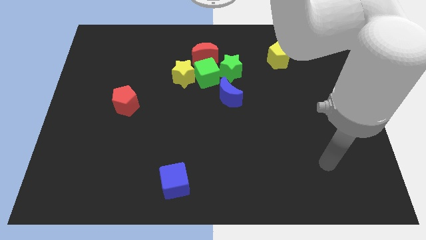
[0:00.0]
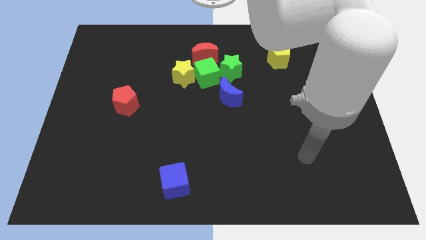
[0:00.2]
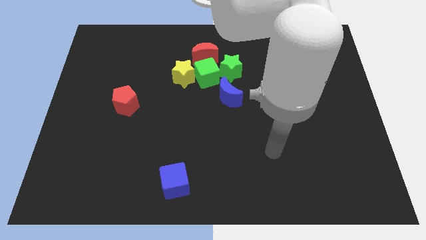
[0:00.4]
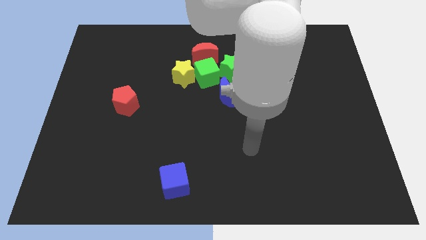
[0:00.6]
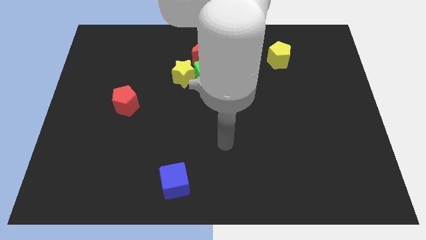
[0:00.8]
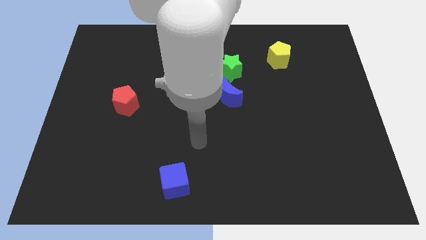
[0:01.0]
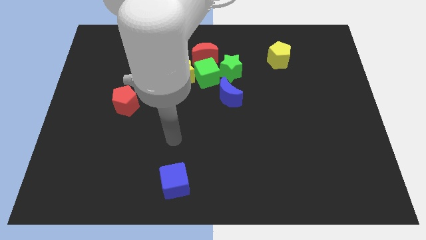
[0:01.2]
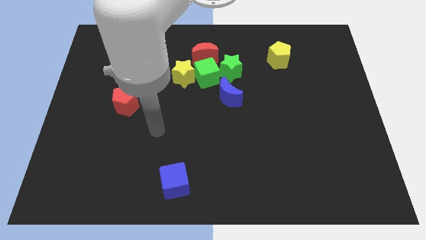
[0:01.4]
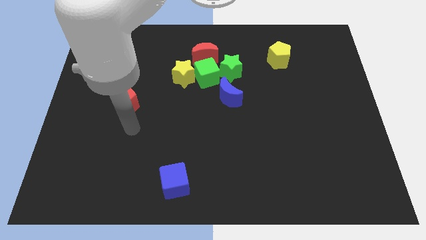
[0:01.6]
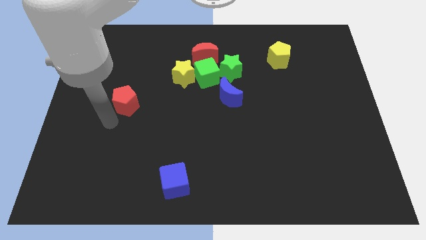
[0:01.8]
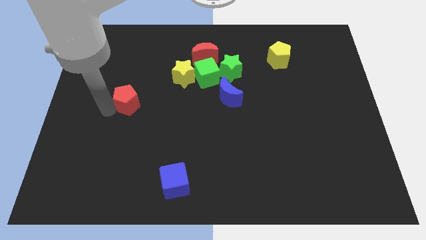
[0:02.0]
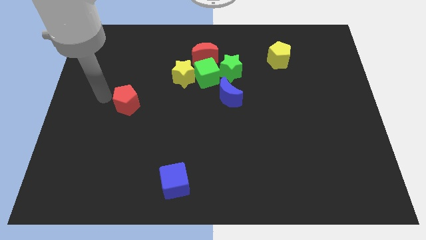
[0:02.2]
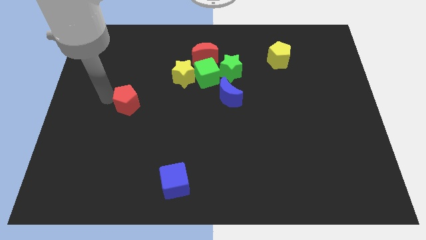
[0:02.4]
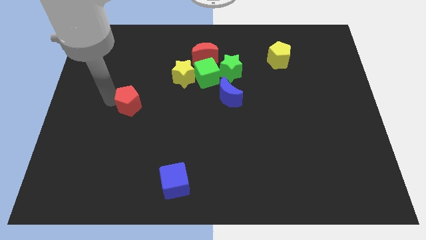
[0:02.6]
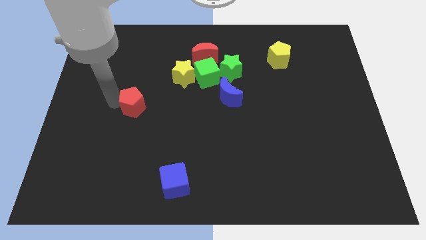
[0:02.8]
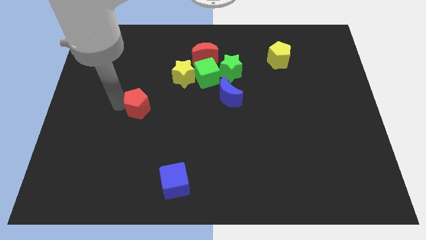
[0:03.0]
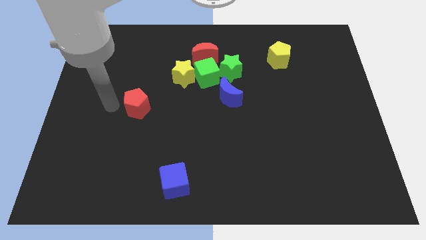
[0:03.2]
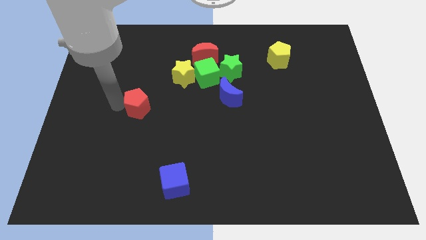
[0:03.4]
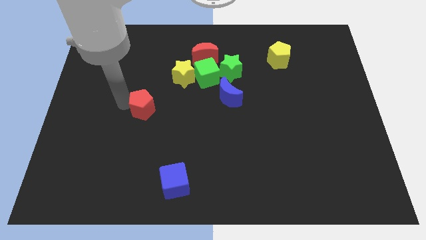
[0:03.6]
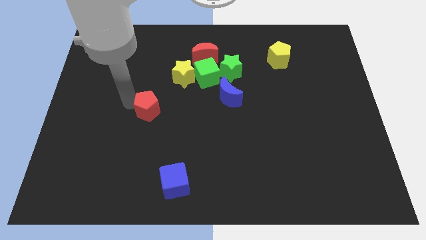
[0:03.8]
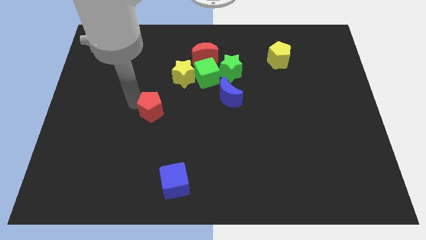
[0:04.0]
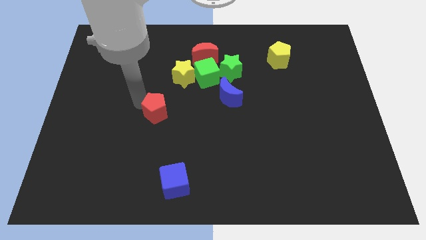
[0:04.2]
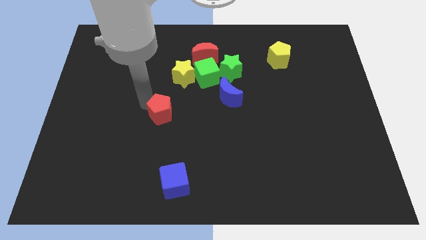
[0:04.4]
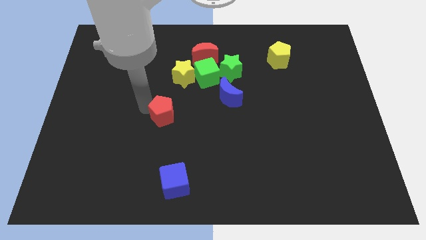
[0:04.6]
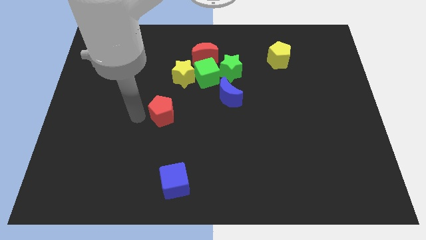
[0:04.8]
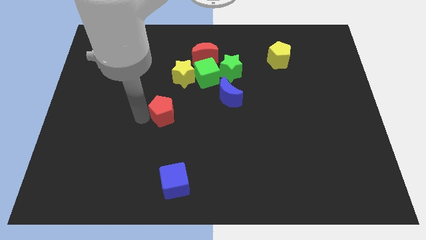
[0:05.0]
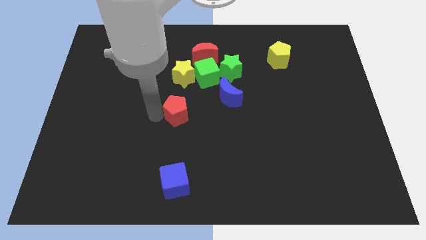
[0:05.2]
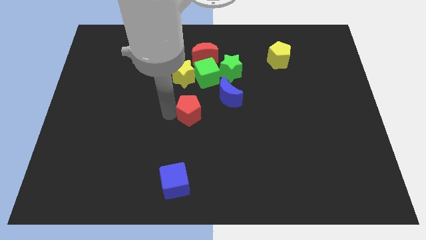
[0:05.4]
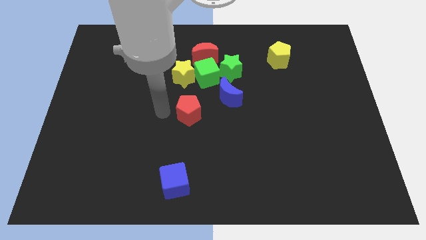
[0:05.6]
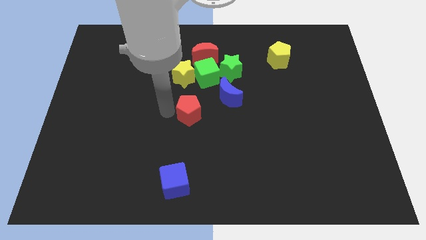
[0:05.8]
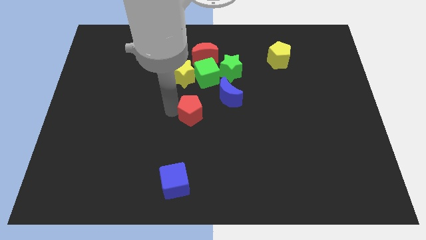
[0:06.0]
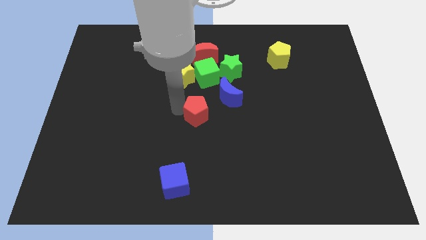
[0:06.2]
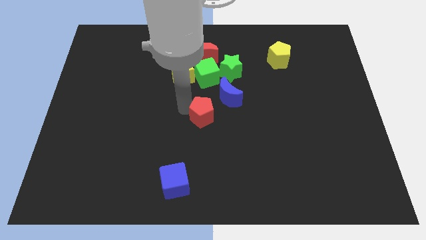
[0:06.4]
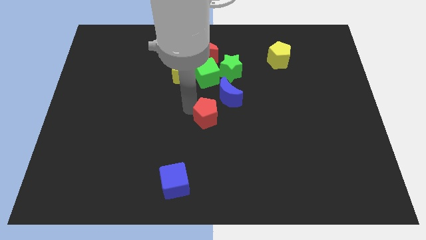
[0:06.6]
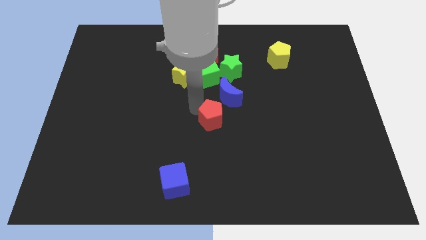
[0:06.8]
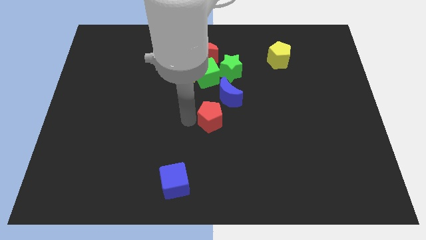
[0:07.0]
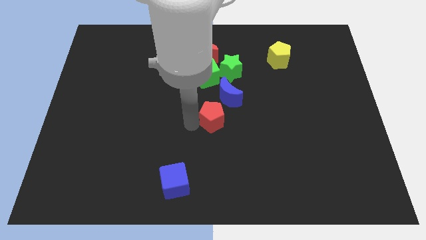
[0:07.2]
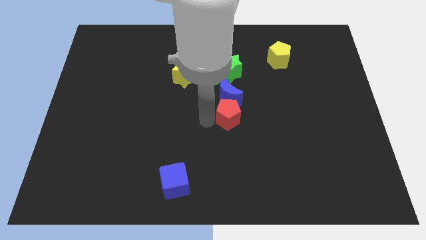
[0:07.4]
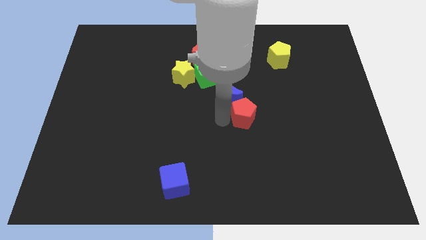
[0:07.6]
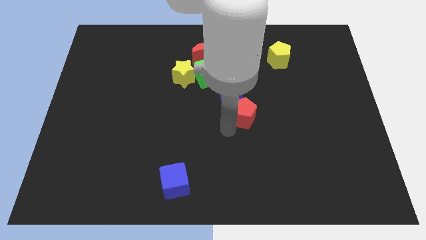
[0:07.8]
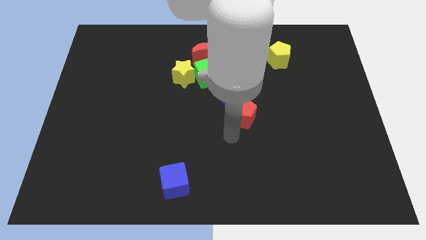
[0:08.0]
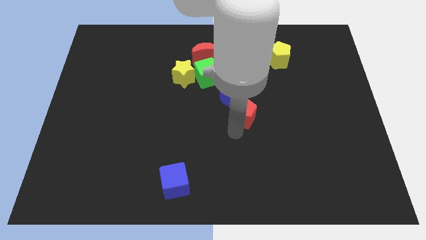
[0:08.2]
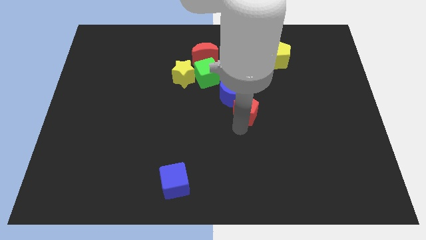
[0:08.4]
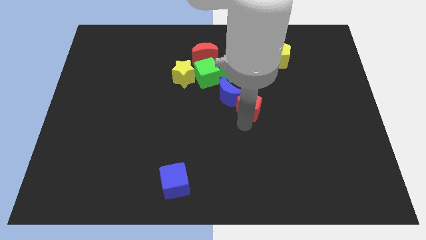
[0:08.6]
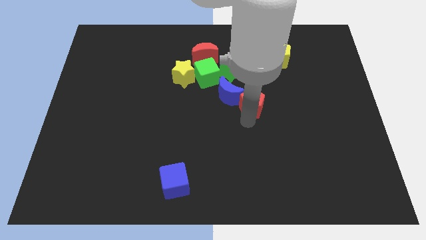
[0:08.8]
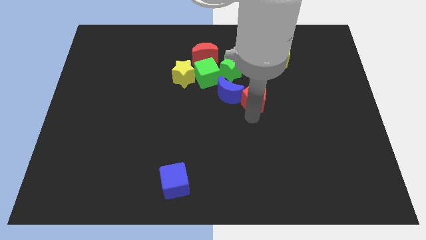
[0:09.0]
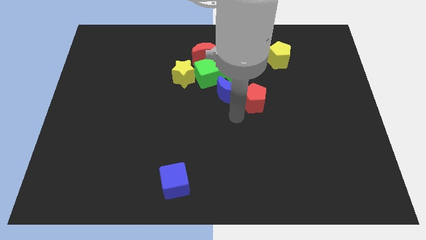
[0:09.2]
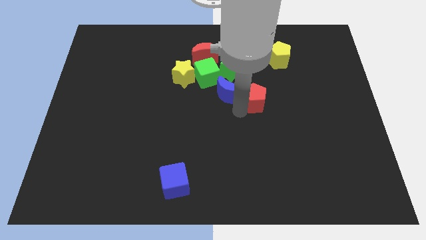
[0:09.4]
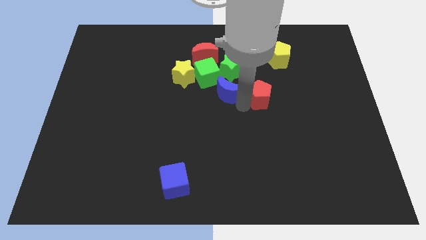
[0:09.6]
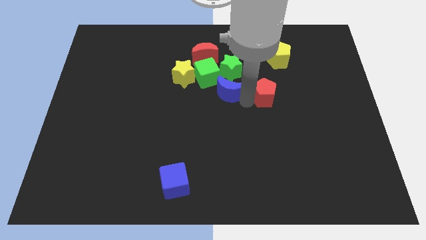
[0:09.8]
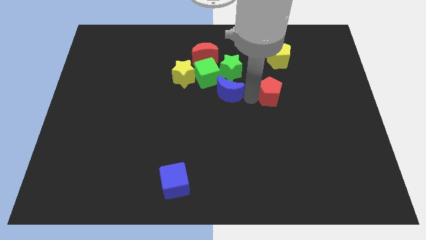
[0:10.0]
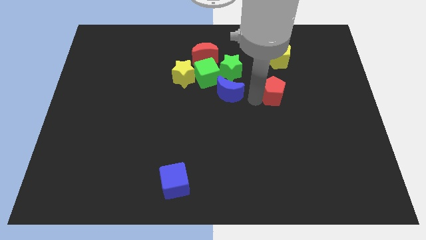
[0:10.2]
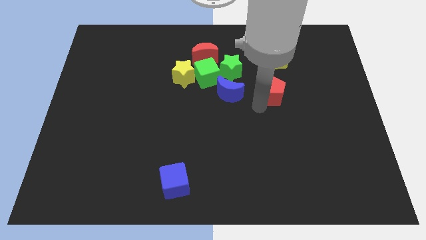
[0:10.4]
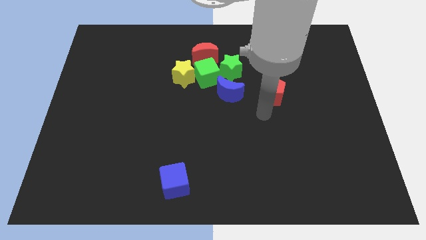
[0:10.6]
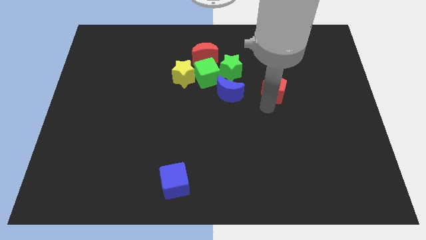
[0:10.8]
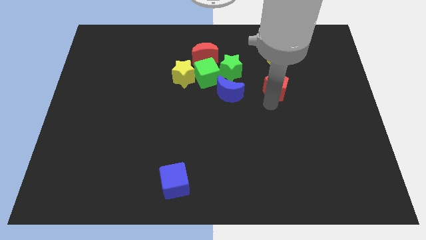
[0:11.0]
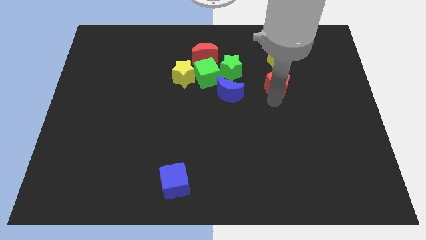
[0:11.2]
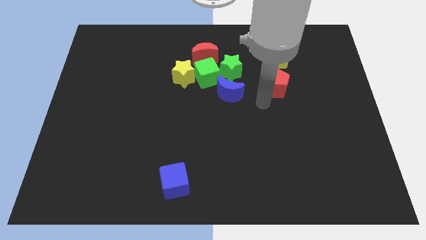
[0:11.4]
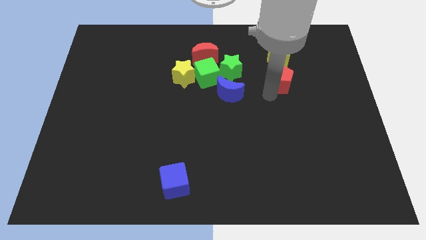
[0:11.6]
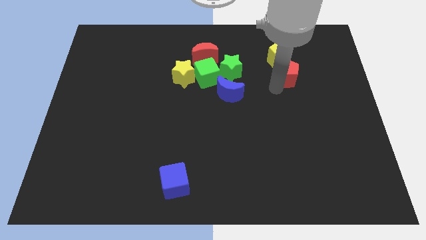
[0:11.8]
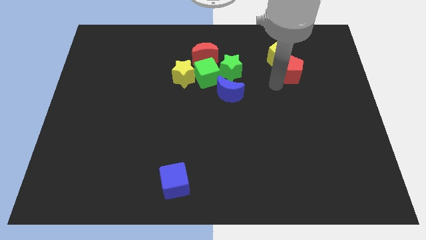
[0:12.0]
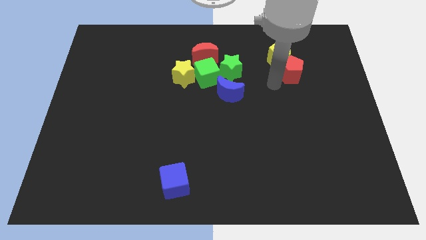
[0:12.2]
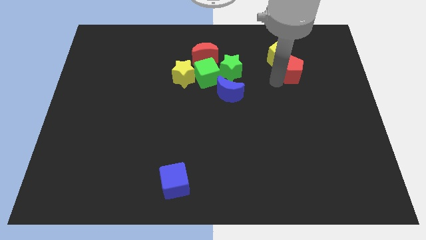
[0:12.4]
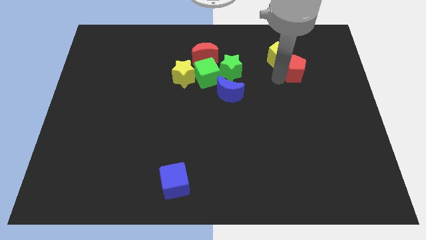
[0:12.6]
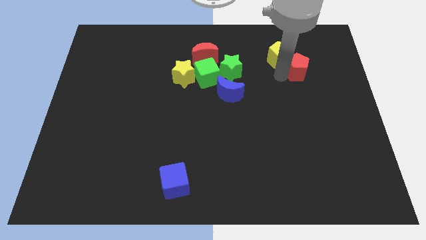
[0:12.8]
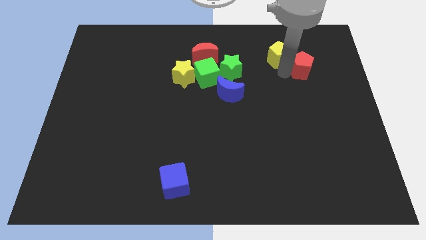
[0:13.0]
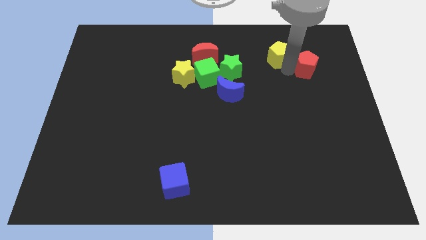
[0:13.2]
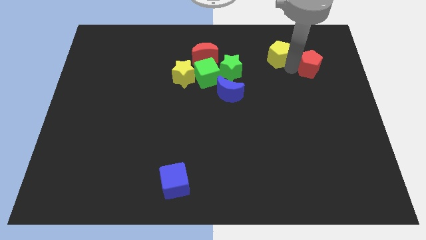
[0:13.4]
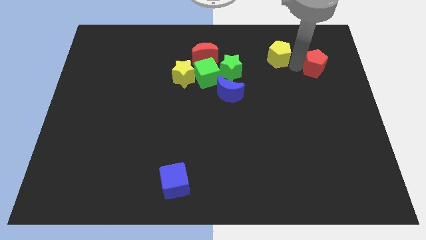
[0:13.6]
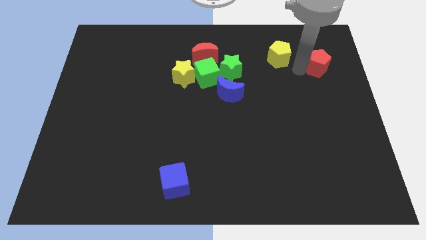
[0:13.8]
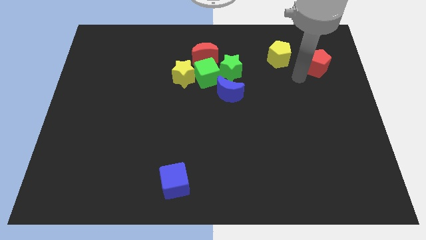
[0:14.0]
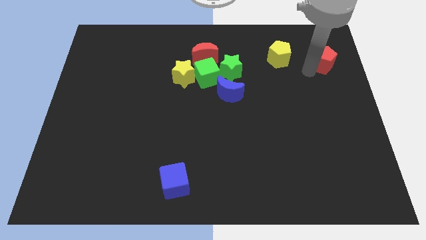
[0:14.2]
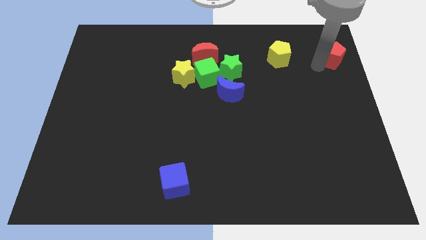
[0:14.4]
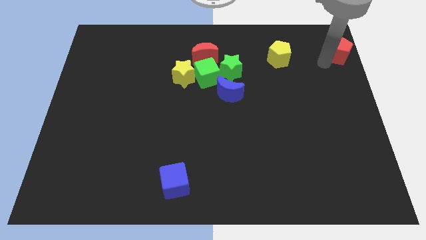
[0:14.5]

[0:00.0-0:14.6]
move the red pentagon to the upper right corner

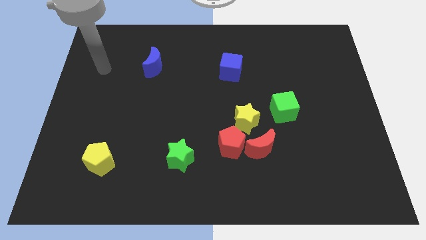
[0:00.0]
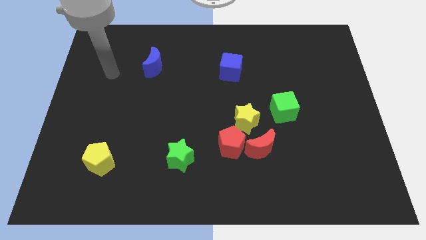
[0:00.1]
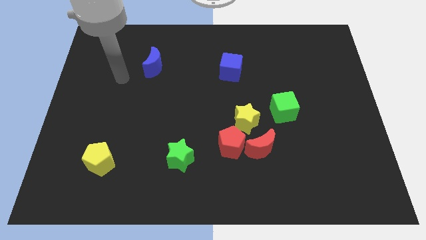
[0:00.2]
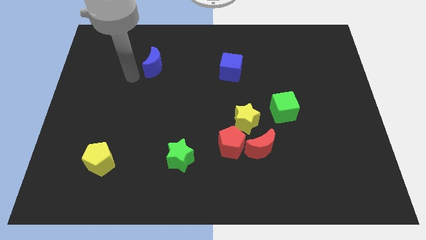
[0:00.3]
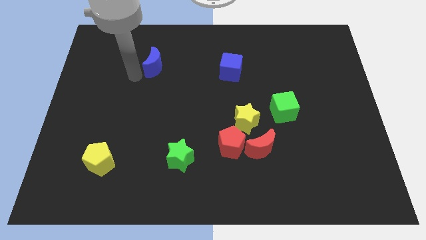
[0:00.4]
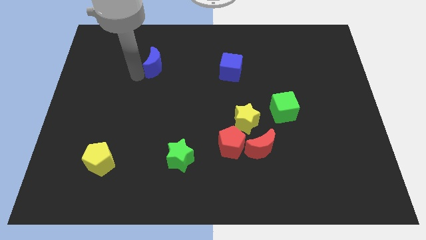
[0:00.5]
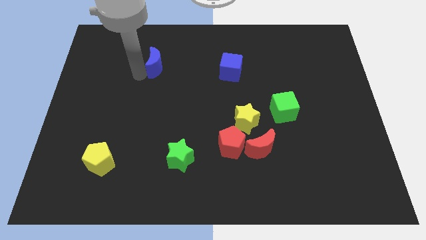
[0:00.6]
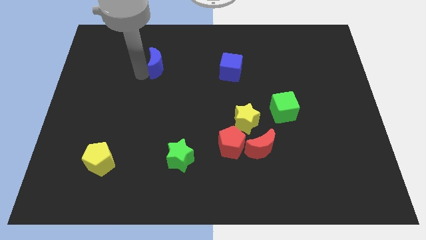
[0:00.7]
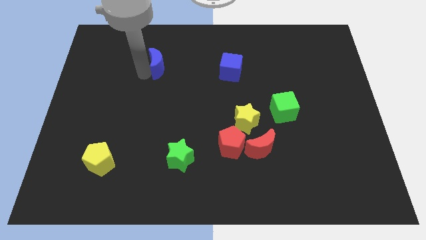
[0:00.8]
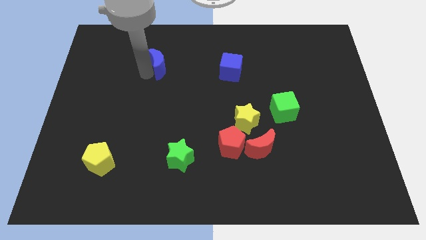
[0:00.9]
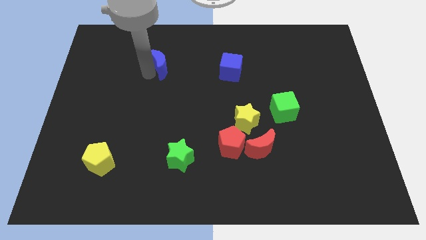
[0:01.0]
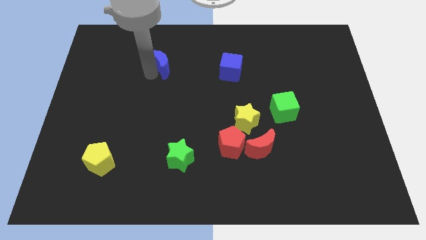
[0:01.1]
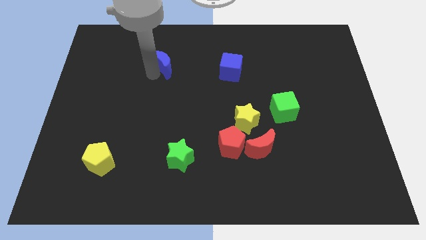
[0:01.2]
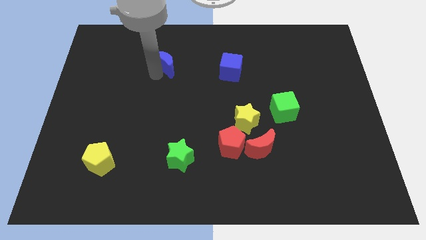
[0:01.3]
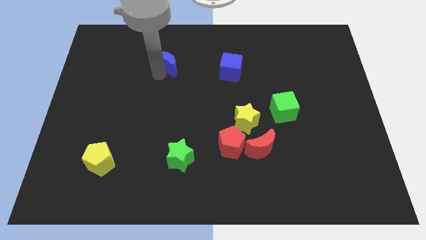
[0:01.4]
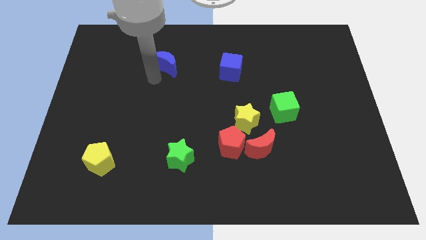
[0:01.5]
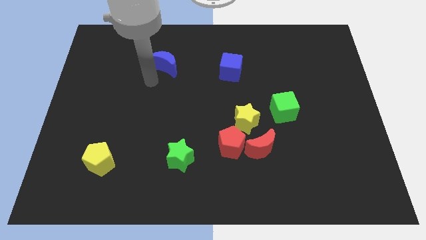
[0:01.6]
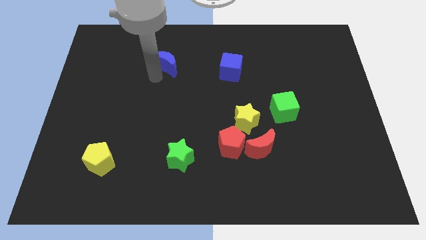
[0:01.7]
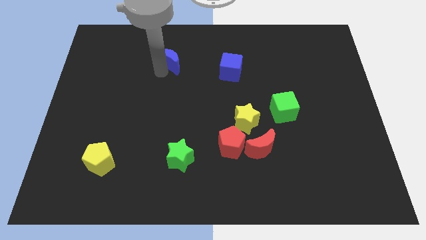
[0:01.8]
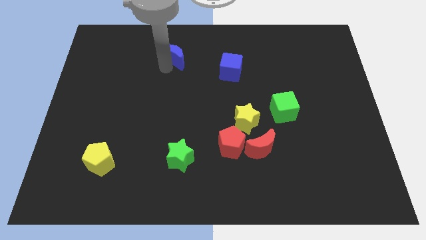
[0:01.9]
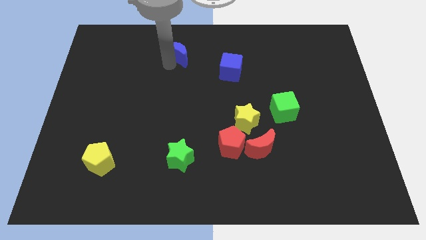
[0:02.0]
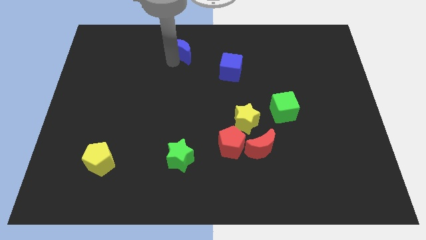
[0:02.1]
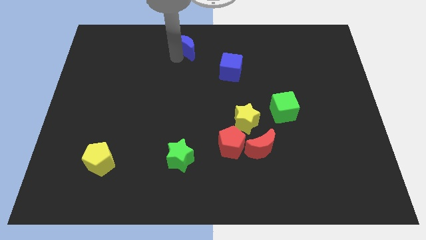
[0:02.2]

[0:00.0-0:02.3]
put the blue moon to the towards your base
